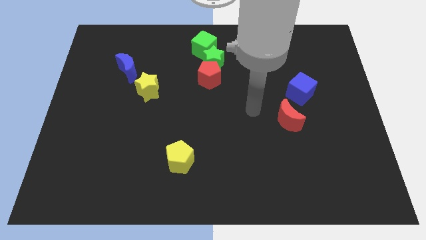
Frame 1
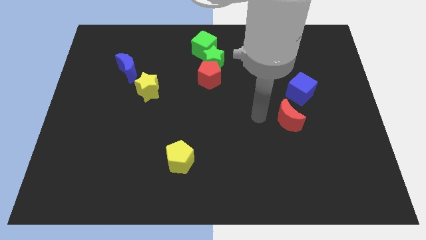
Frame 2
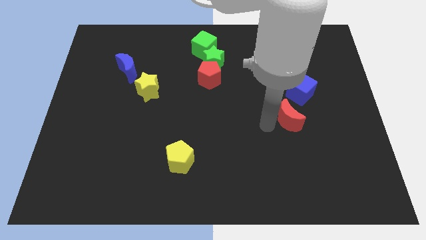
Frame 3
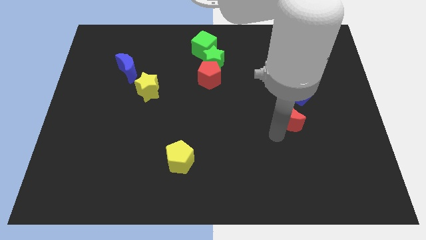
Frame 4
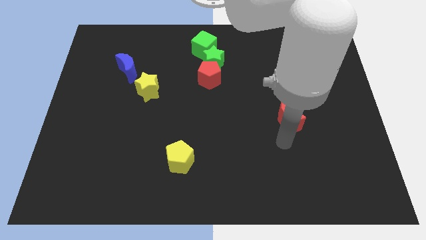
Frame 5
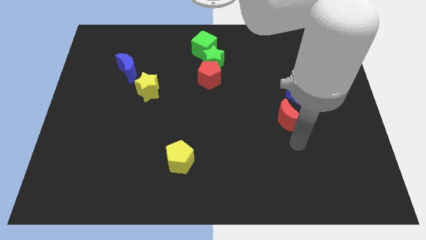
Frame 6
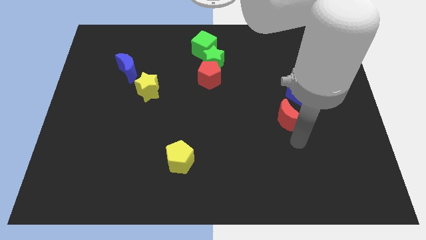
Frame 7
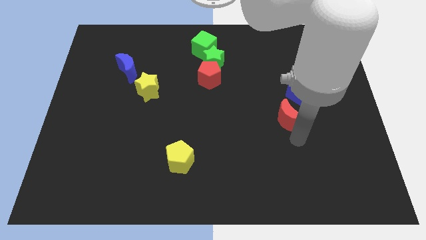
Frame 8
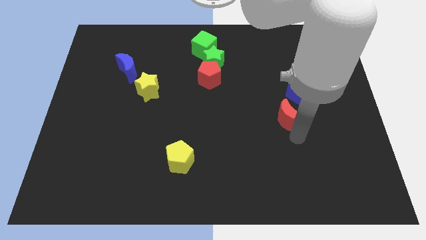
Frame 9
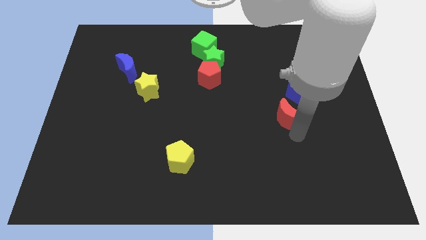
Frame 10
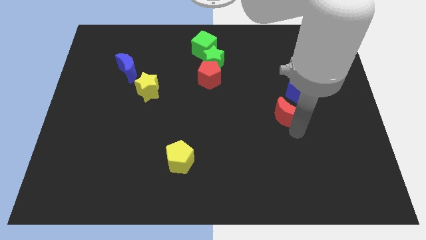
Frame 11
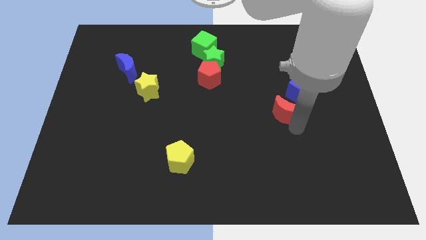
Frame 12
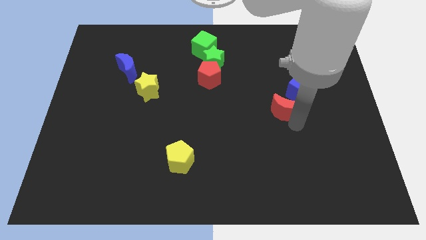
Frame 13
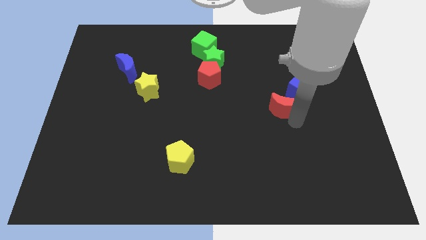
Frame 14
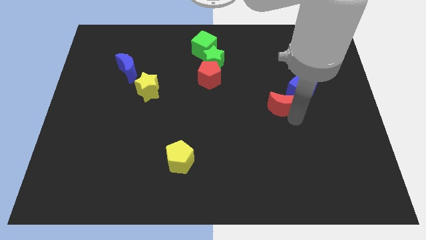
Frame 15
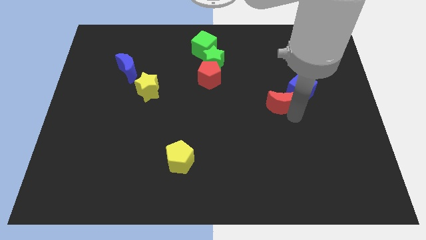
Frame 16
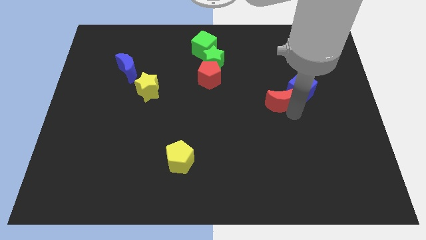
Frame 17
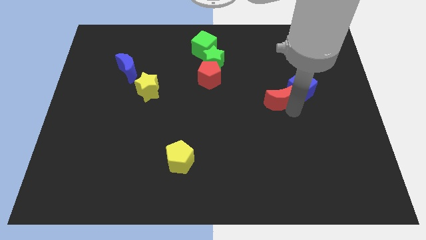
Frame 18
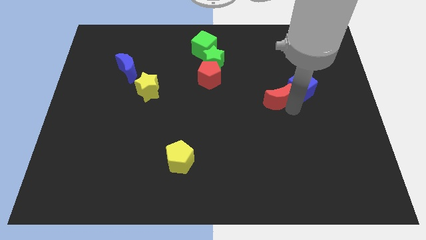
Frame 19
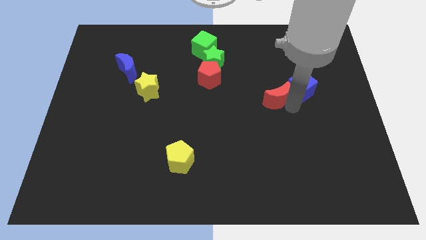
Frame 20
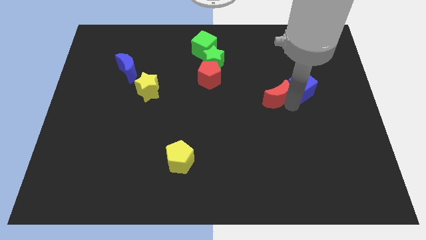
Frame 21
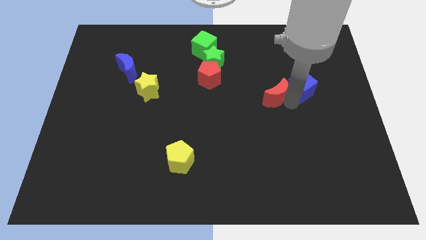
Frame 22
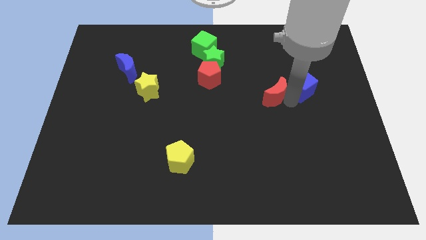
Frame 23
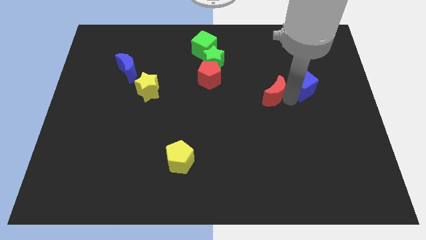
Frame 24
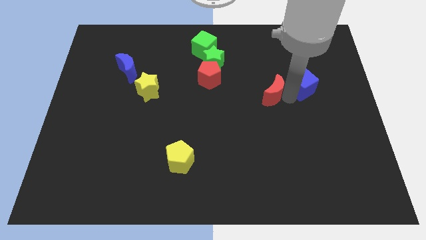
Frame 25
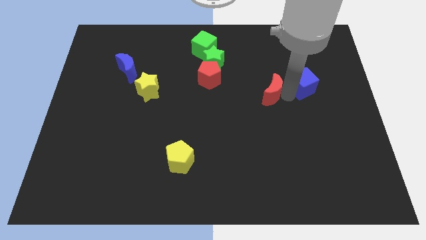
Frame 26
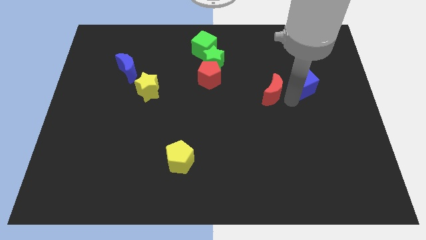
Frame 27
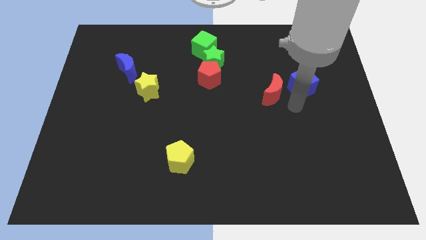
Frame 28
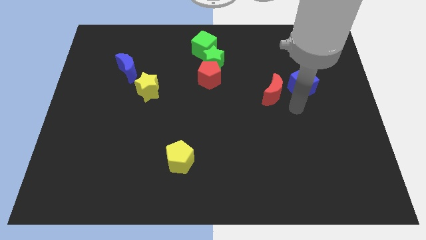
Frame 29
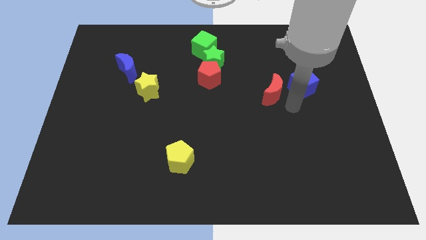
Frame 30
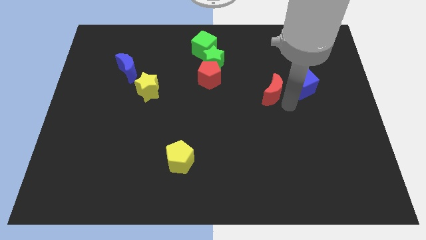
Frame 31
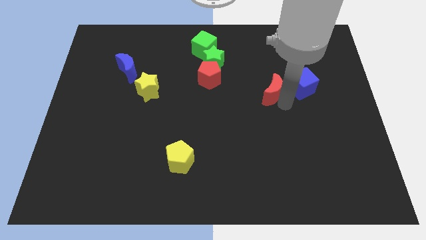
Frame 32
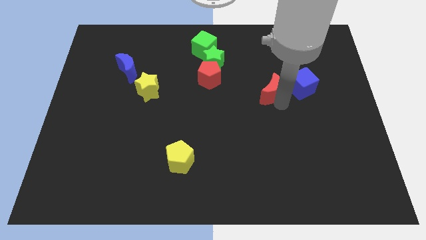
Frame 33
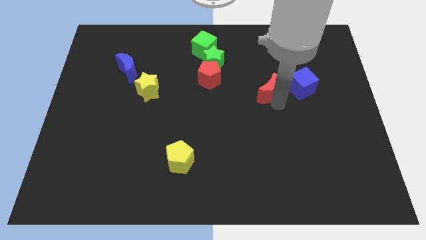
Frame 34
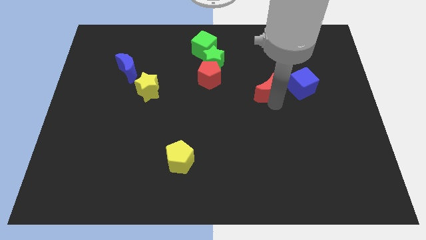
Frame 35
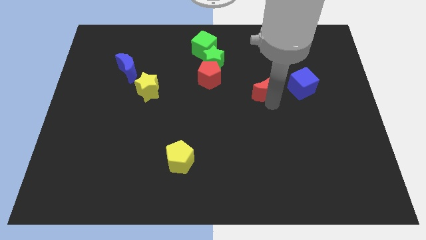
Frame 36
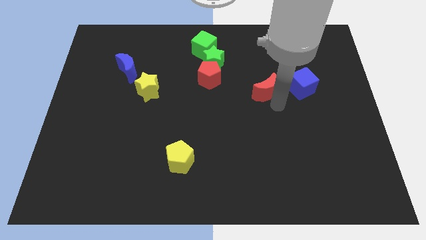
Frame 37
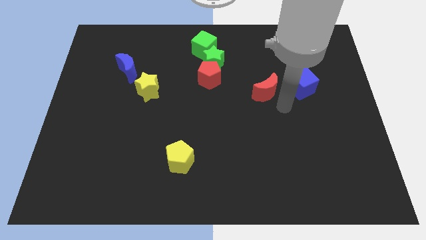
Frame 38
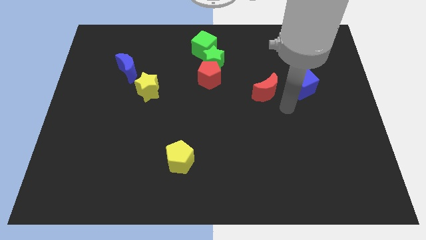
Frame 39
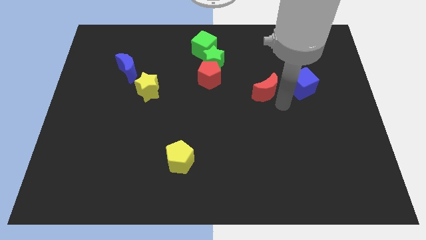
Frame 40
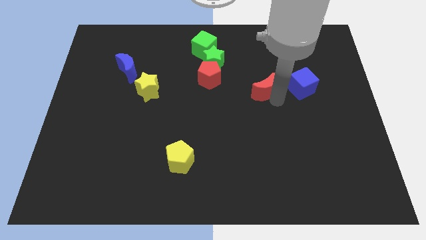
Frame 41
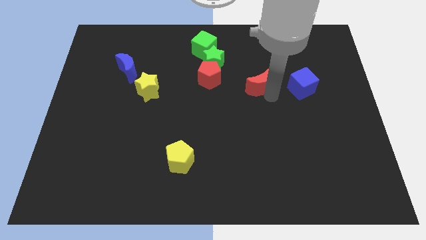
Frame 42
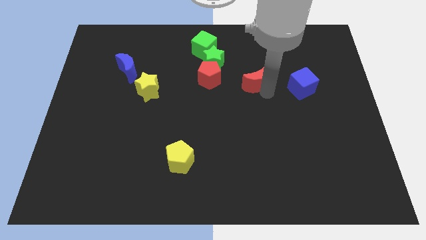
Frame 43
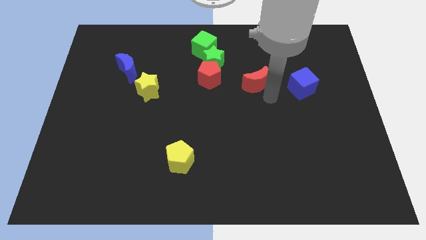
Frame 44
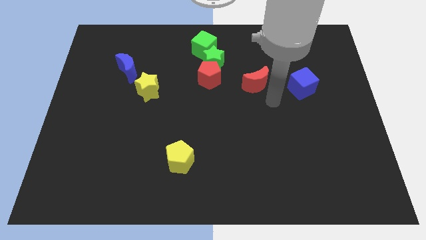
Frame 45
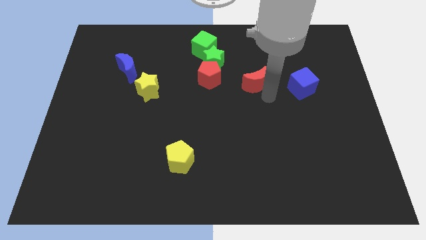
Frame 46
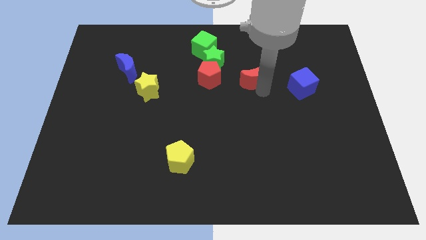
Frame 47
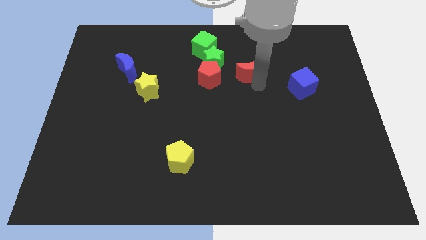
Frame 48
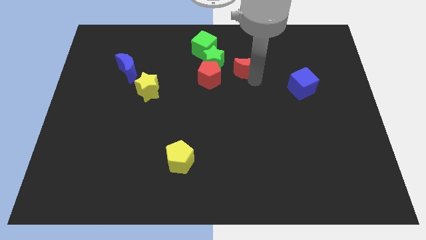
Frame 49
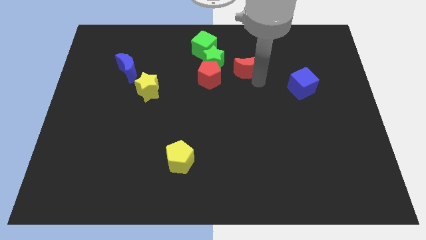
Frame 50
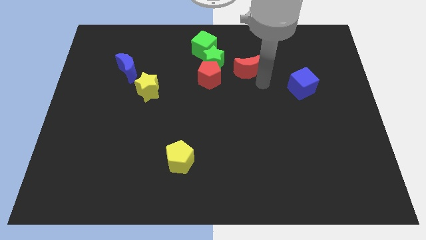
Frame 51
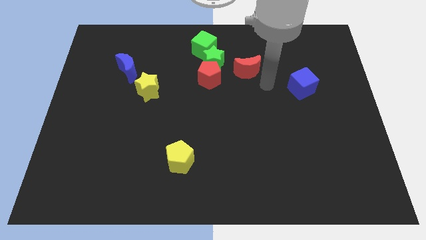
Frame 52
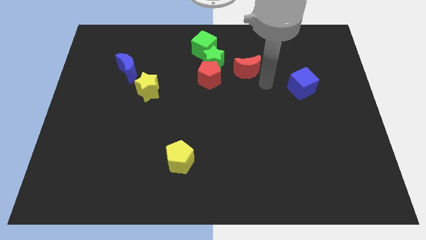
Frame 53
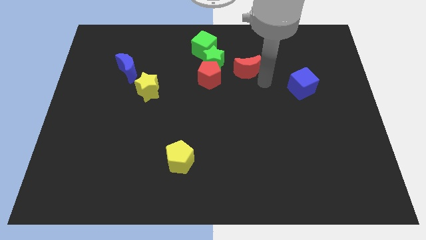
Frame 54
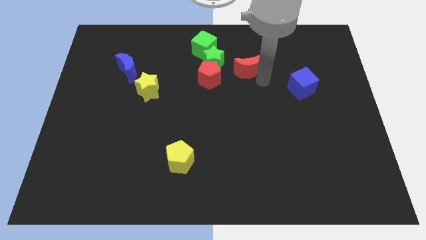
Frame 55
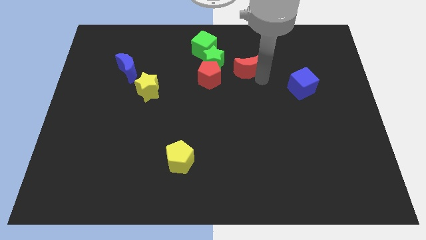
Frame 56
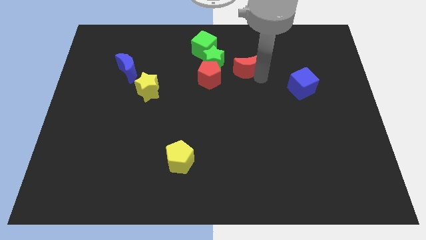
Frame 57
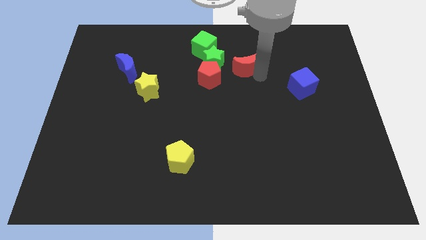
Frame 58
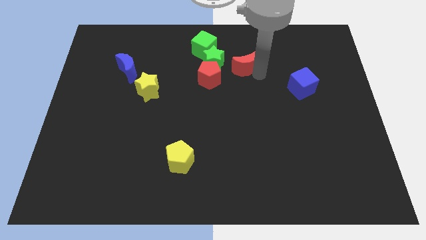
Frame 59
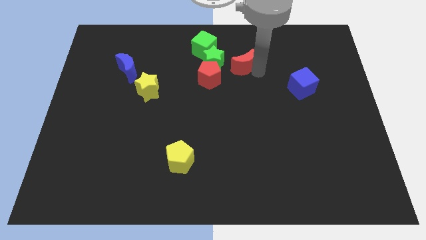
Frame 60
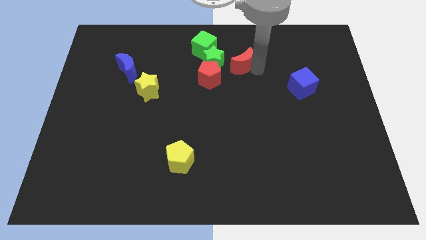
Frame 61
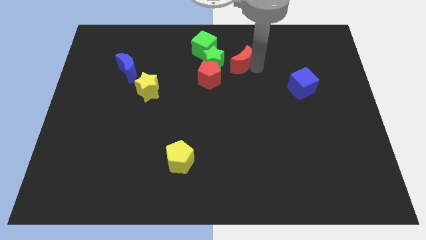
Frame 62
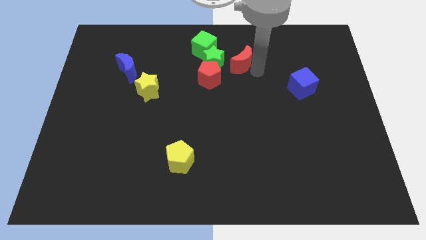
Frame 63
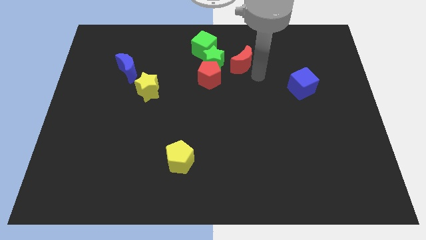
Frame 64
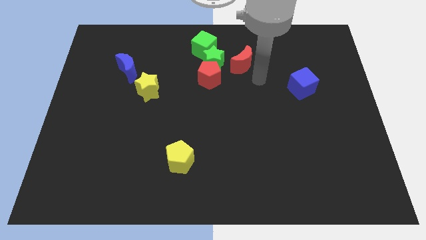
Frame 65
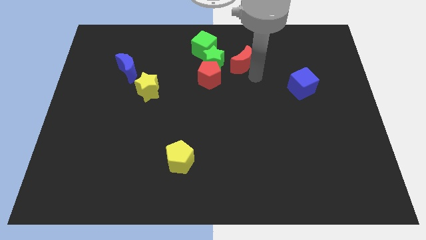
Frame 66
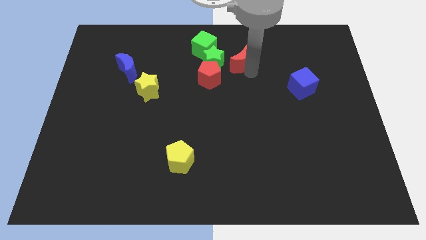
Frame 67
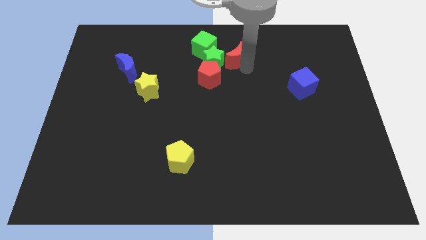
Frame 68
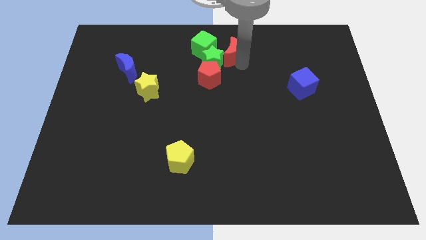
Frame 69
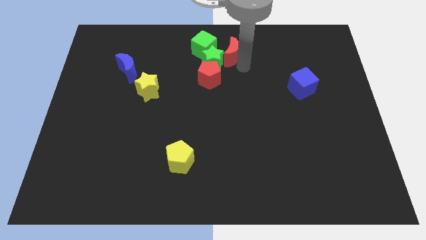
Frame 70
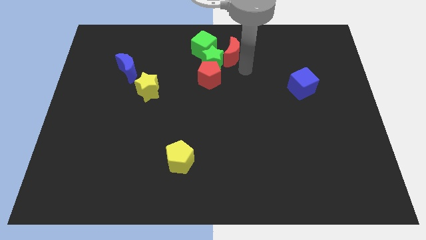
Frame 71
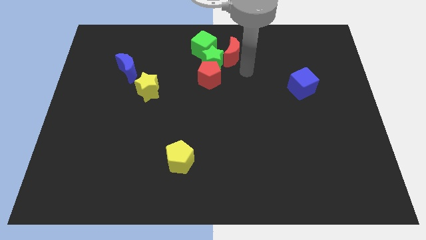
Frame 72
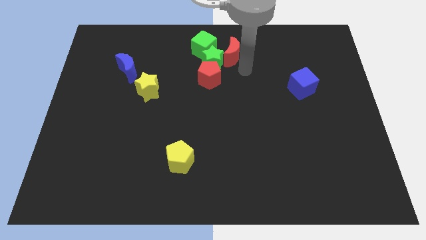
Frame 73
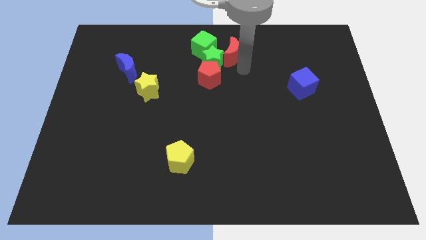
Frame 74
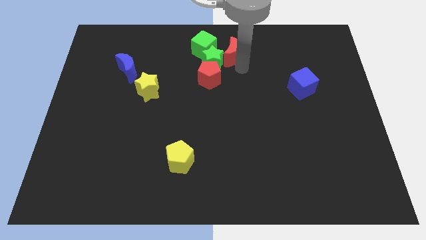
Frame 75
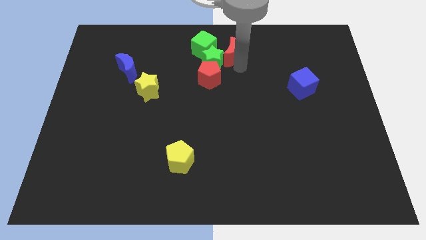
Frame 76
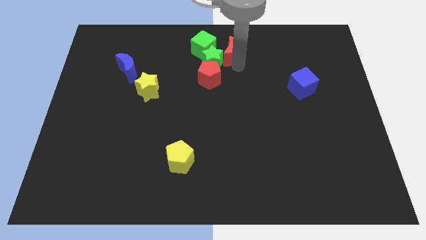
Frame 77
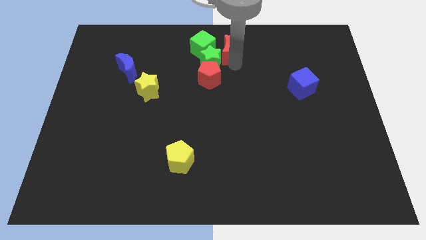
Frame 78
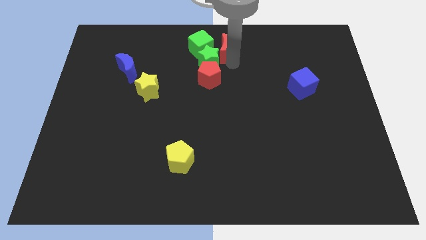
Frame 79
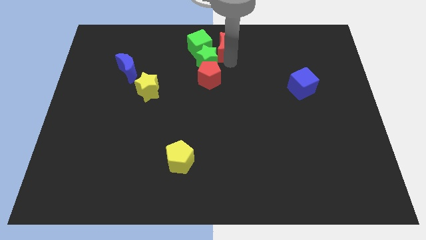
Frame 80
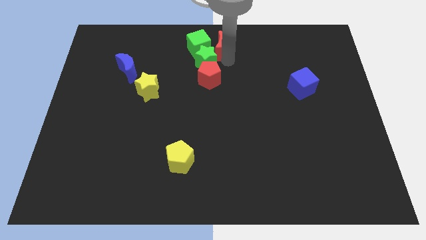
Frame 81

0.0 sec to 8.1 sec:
slide the red moon to the green cube
